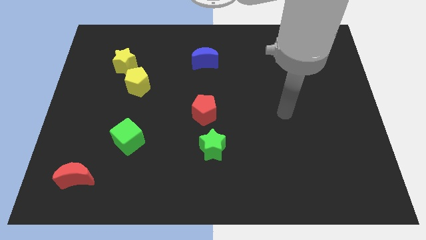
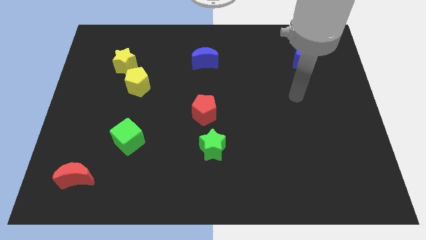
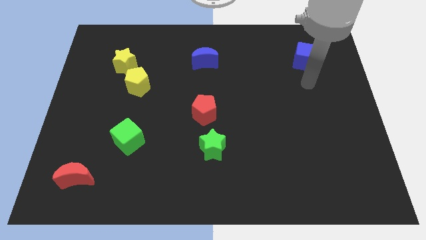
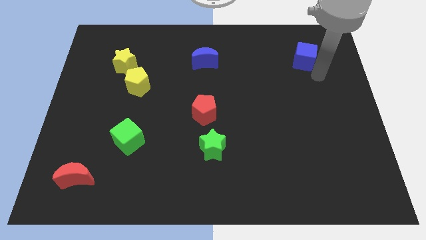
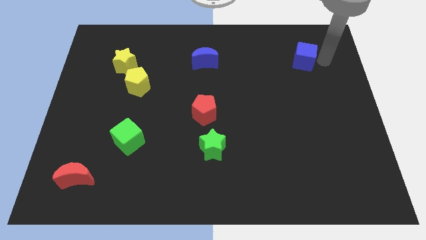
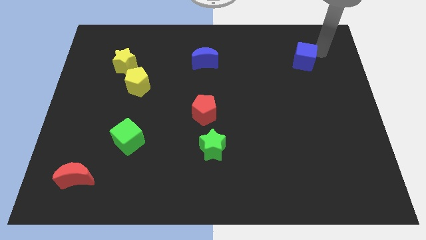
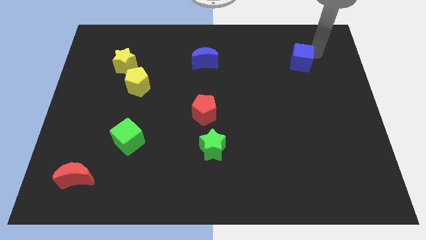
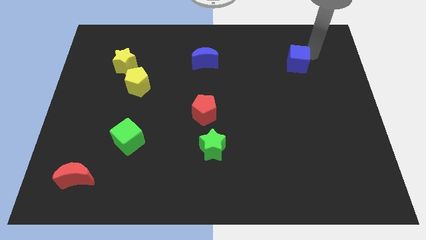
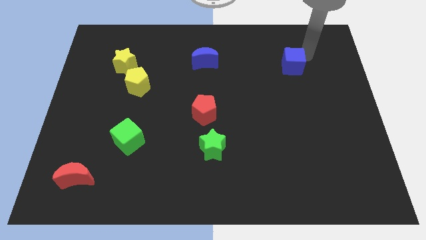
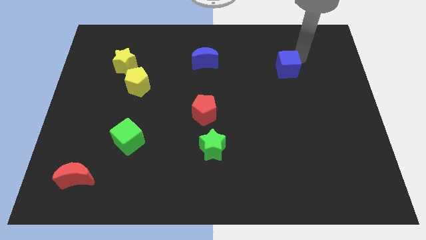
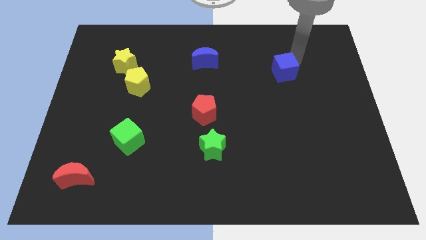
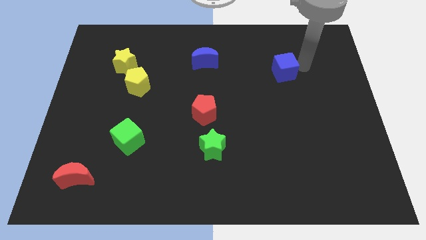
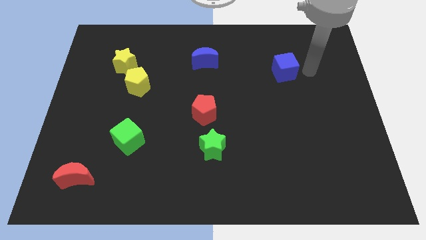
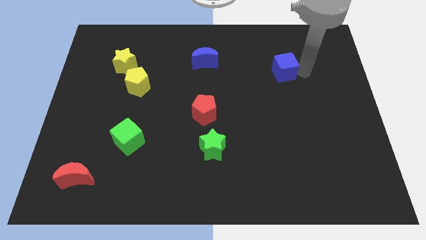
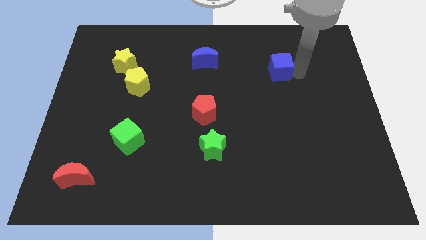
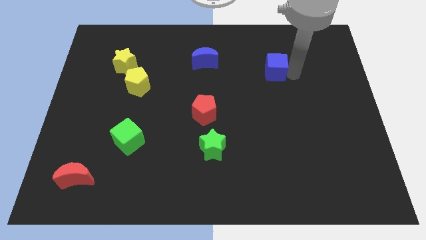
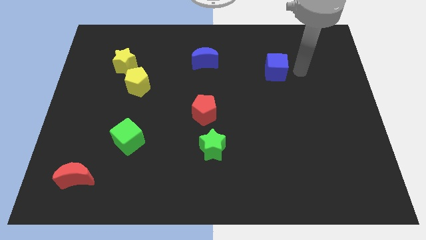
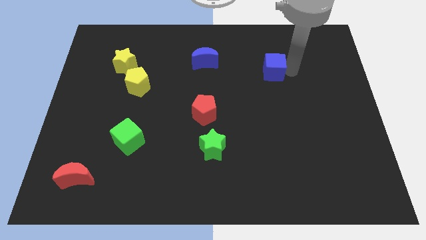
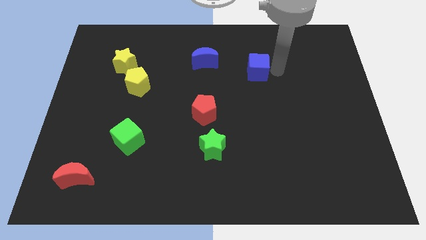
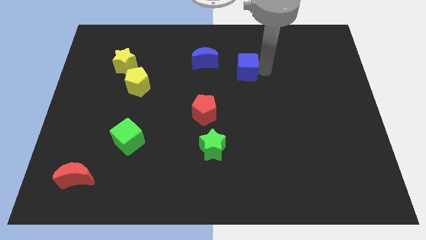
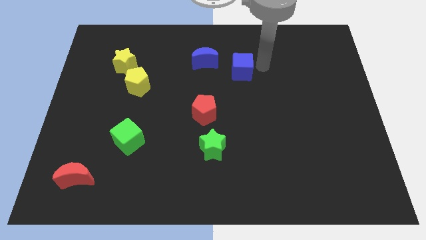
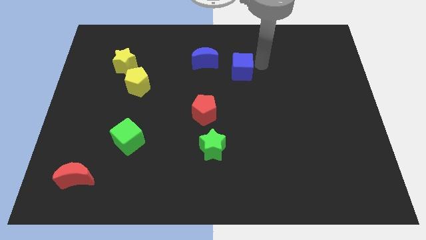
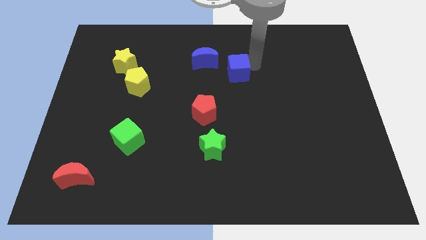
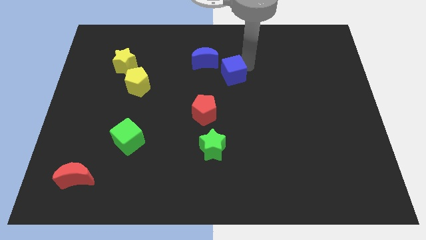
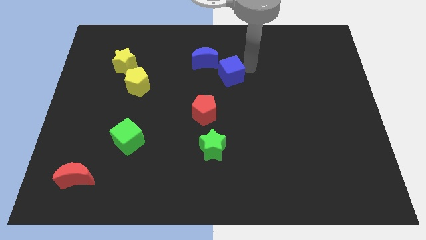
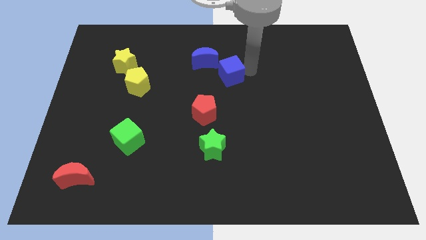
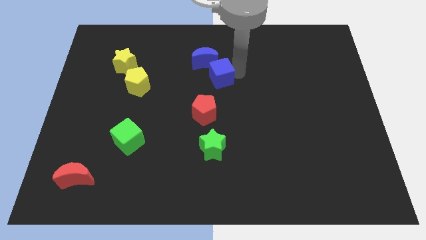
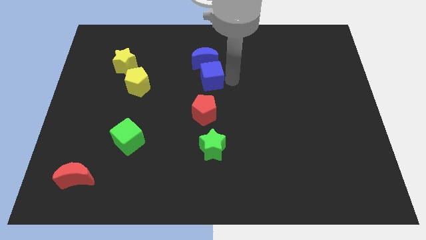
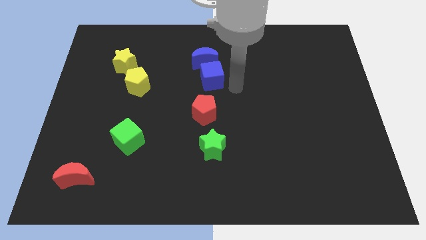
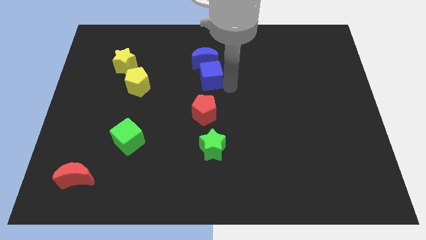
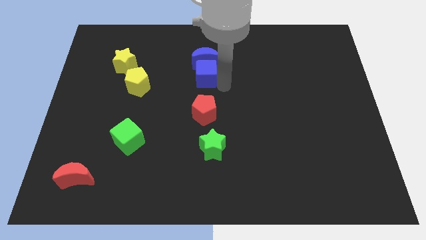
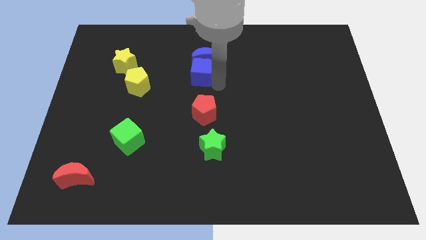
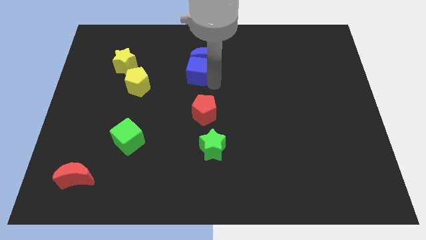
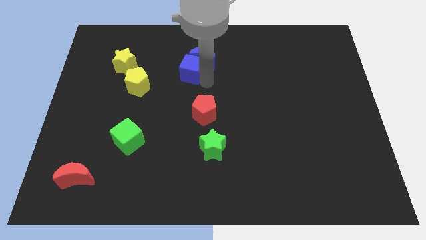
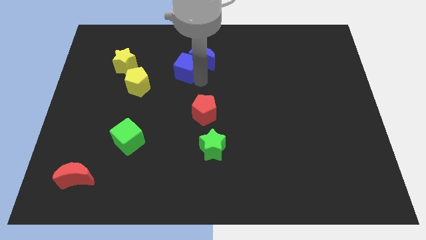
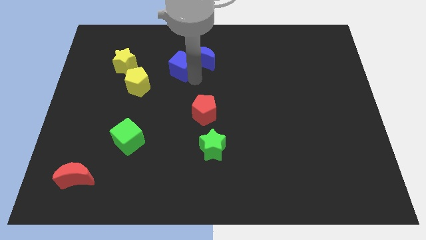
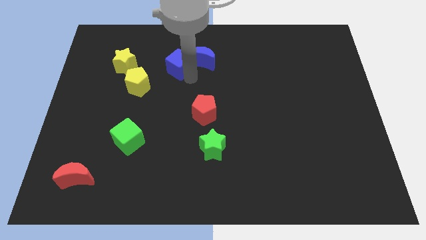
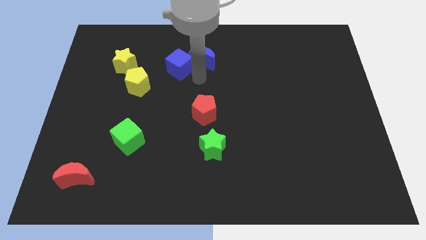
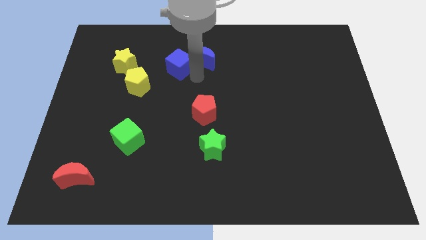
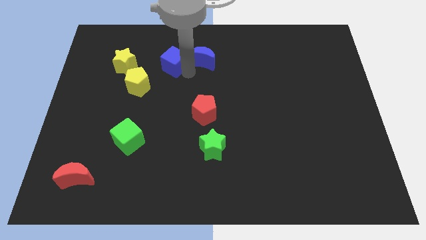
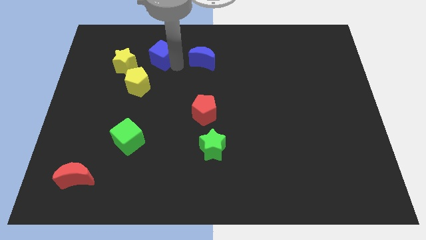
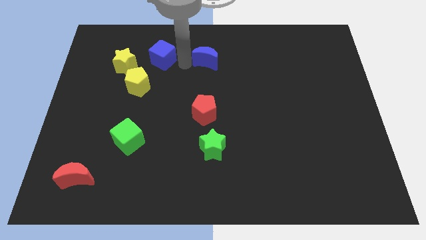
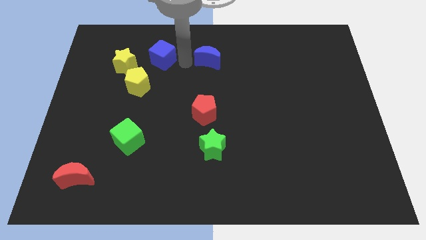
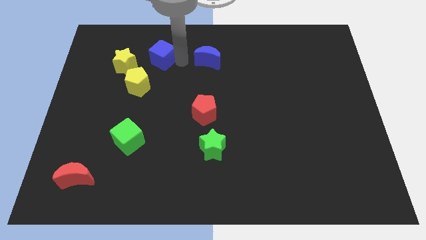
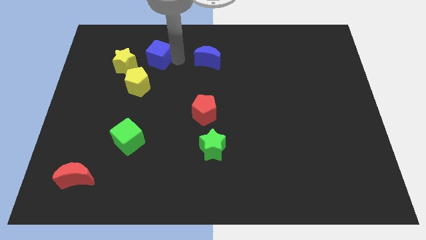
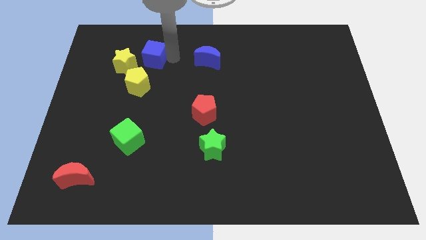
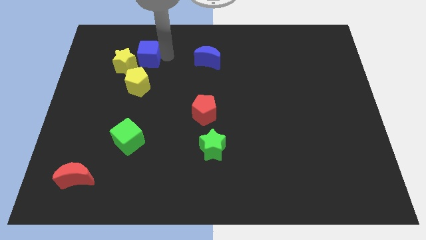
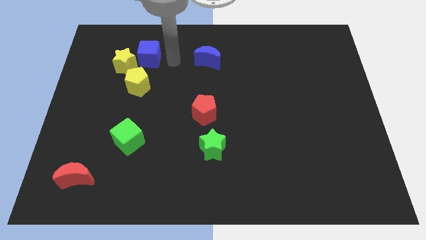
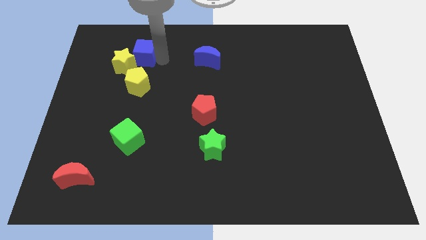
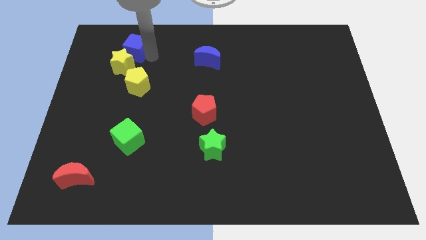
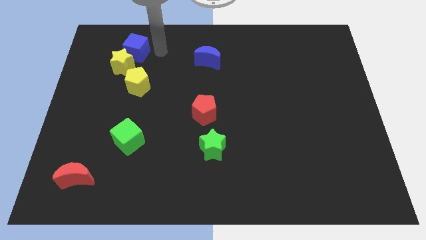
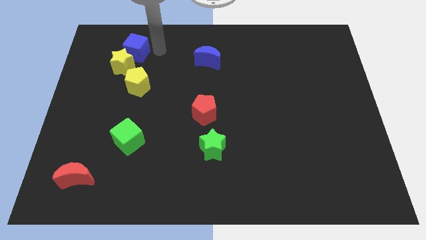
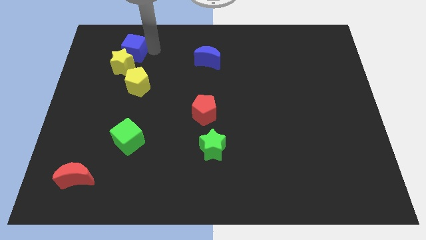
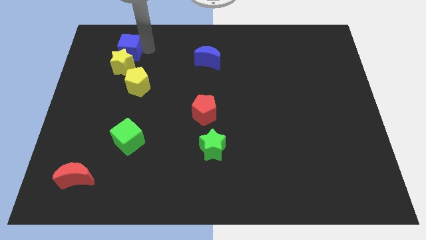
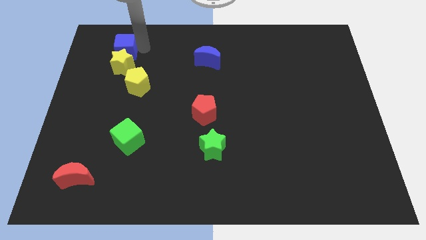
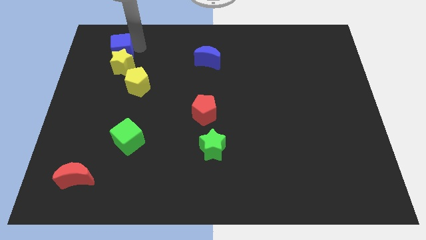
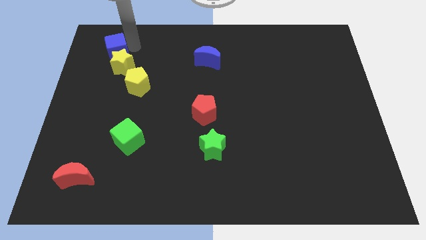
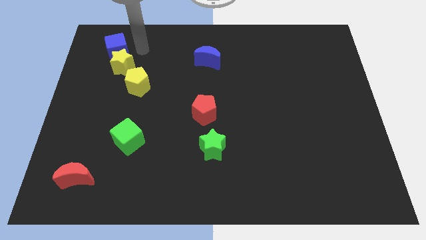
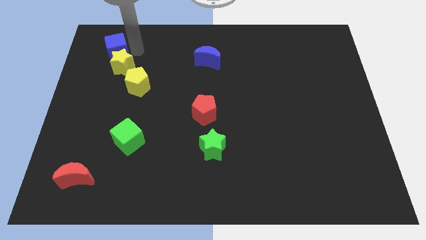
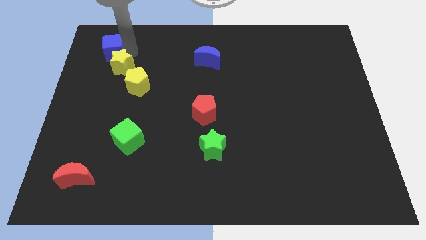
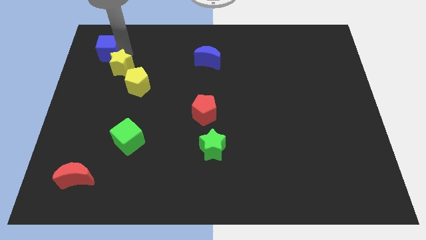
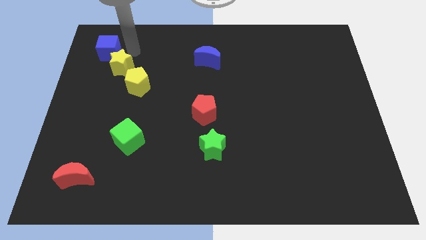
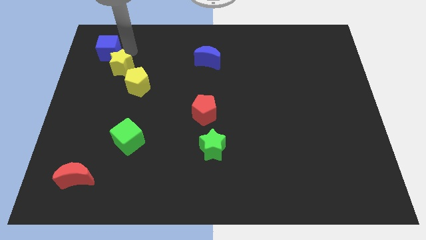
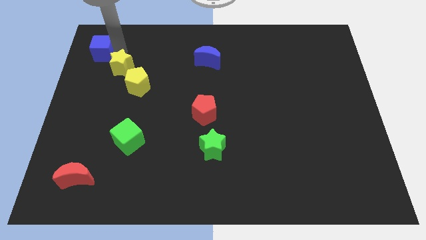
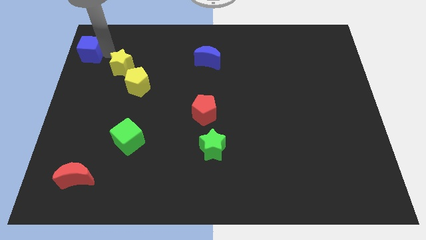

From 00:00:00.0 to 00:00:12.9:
push the blue cube to the top left corner
